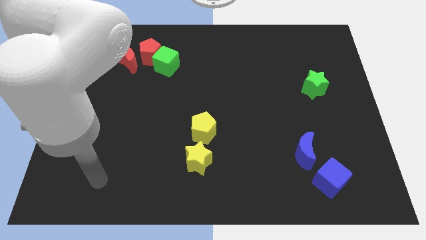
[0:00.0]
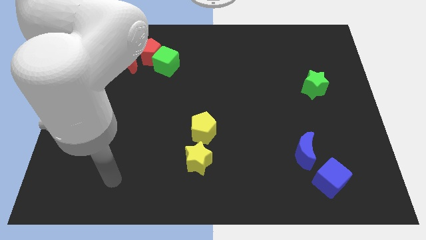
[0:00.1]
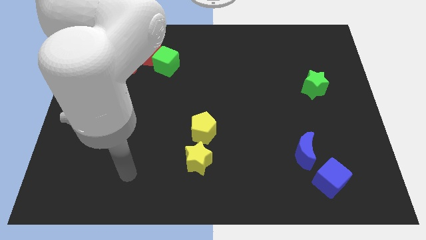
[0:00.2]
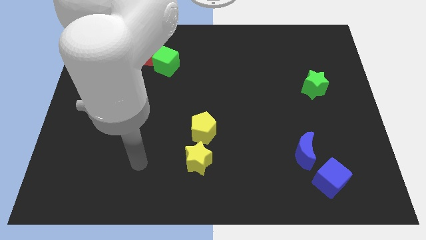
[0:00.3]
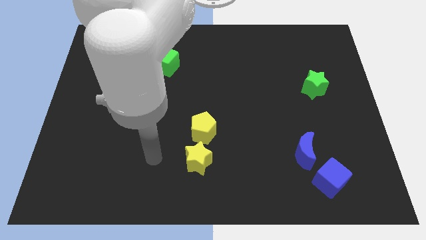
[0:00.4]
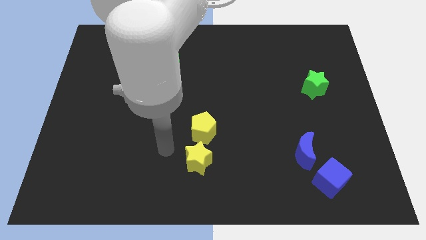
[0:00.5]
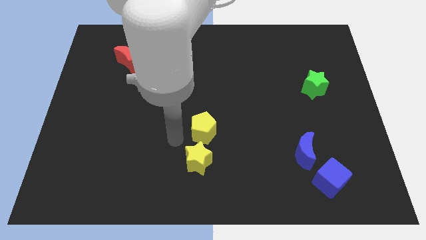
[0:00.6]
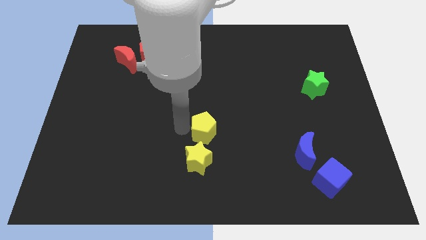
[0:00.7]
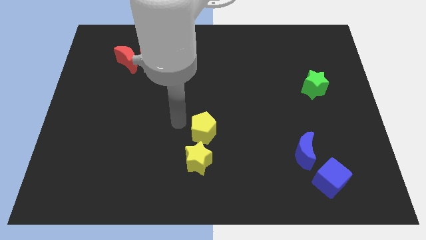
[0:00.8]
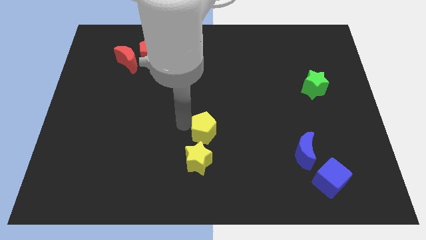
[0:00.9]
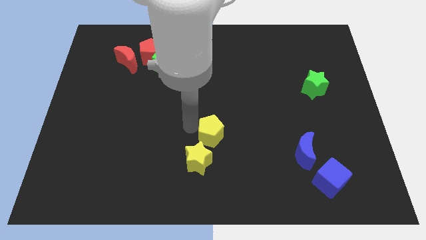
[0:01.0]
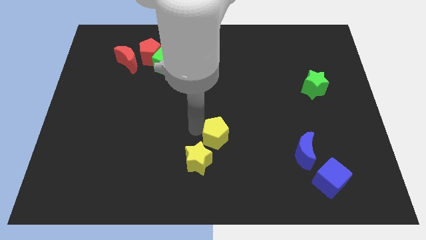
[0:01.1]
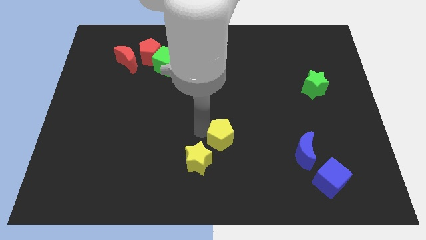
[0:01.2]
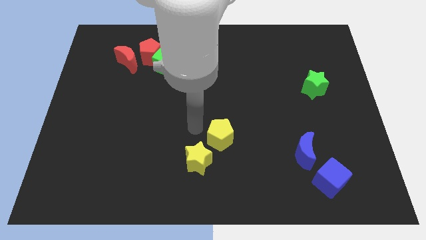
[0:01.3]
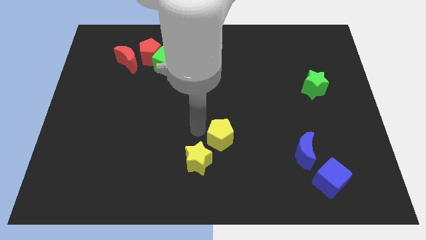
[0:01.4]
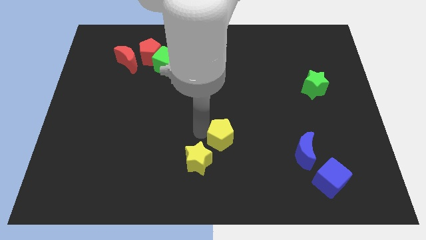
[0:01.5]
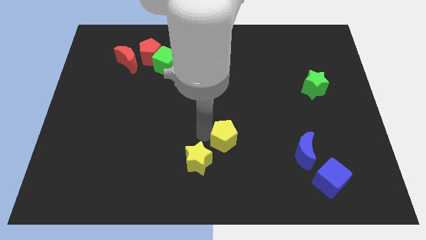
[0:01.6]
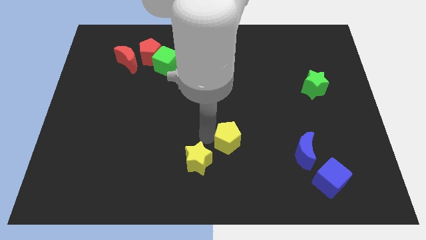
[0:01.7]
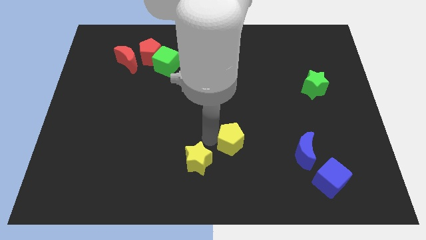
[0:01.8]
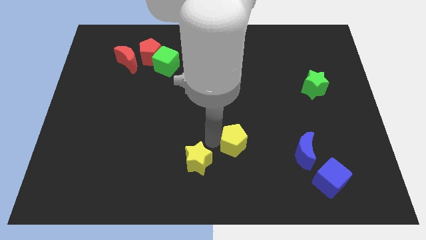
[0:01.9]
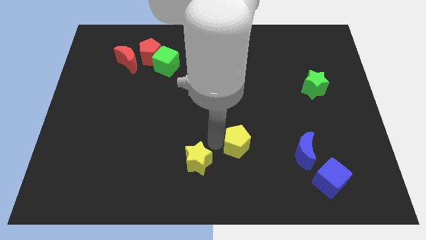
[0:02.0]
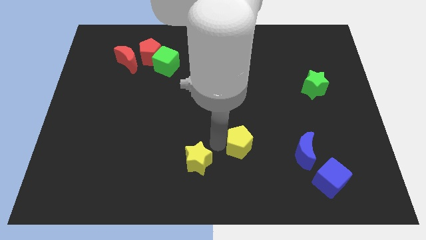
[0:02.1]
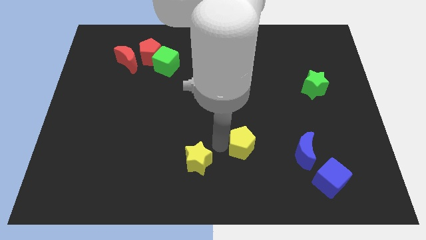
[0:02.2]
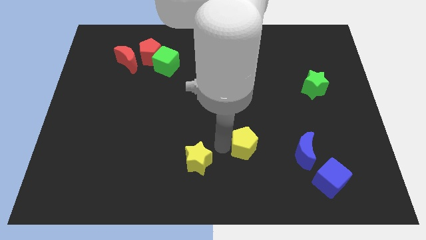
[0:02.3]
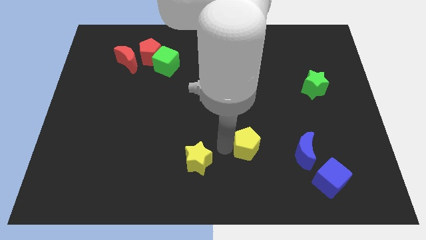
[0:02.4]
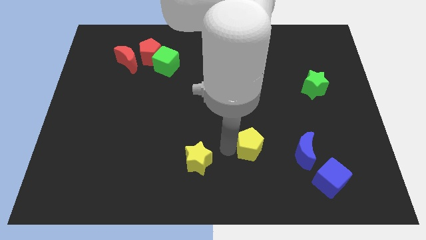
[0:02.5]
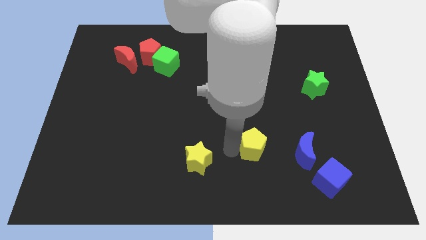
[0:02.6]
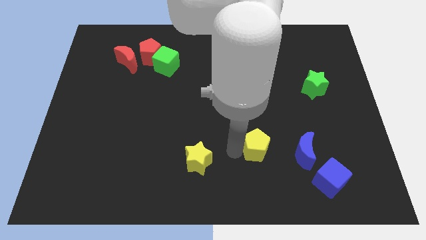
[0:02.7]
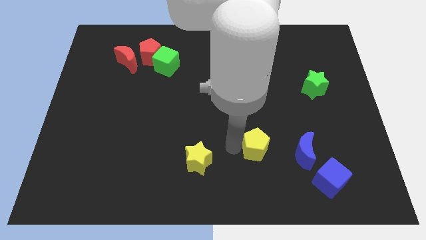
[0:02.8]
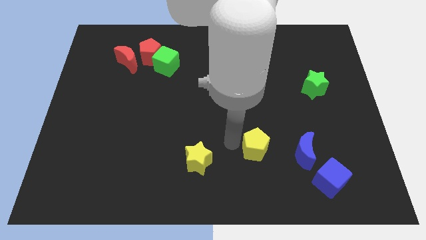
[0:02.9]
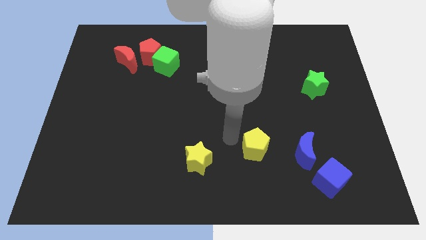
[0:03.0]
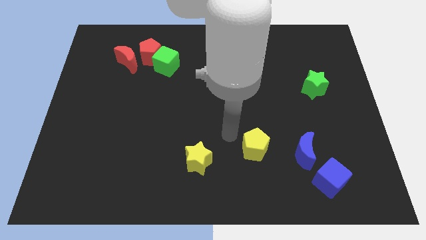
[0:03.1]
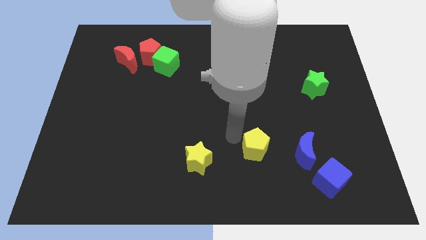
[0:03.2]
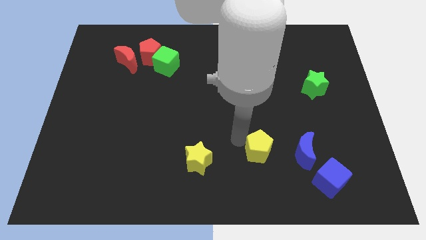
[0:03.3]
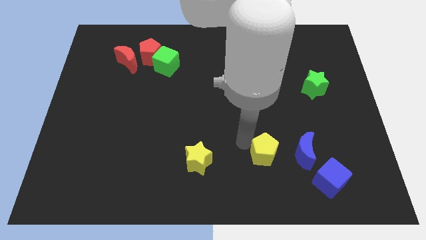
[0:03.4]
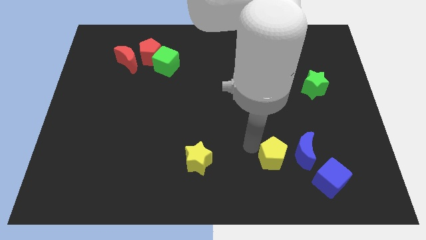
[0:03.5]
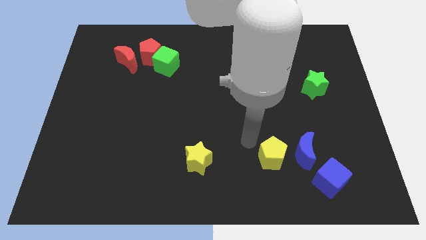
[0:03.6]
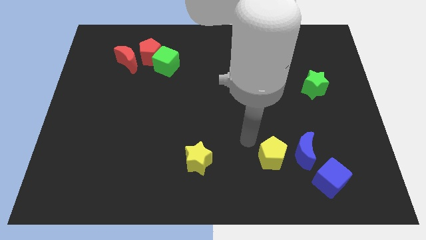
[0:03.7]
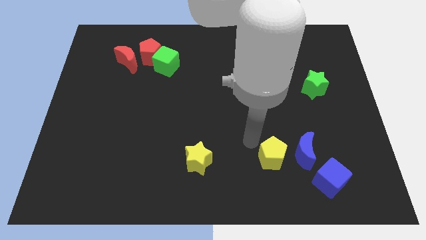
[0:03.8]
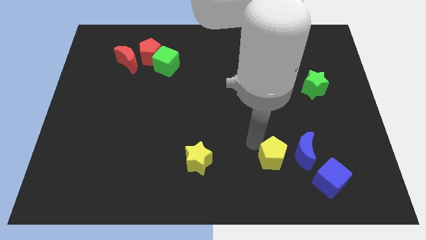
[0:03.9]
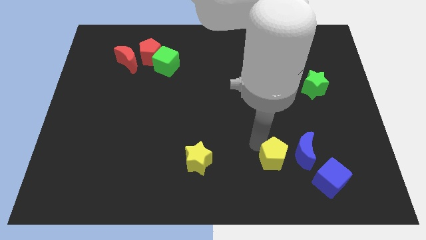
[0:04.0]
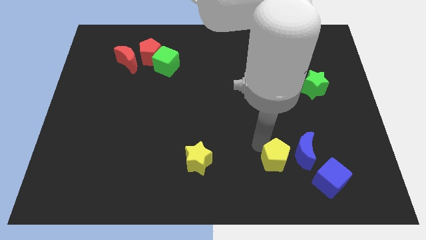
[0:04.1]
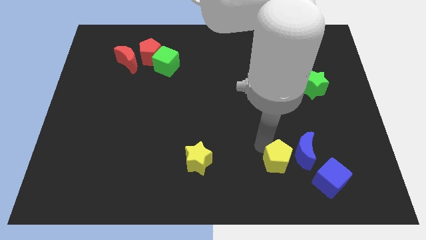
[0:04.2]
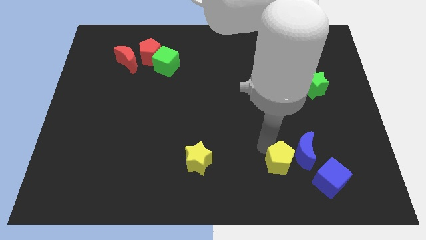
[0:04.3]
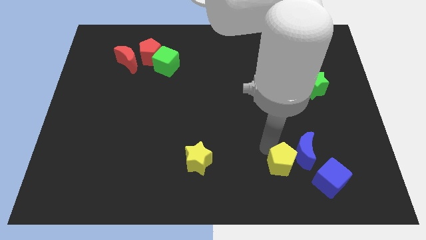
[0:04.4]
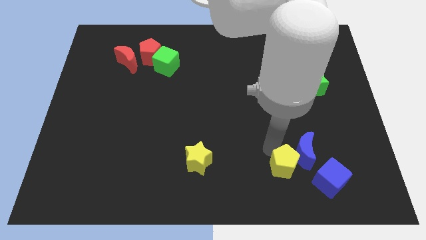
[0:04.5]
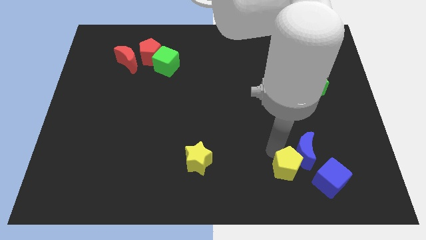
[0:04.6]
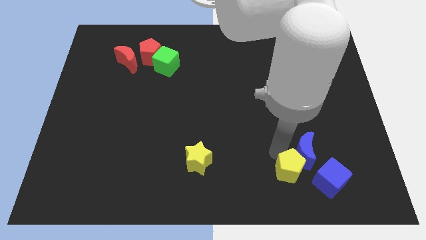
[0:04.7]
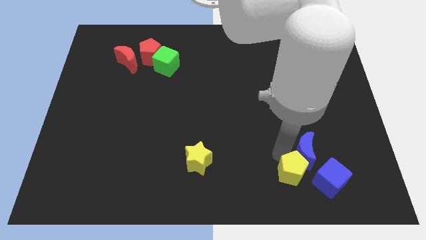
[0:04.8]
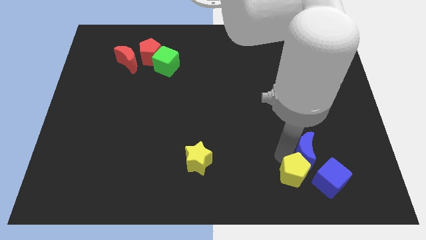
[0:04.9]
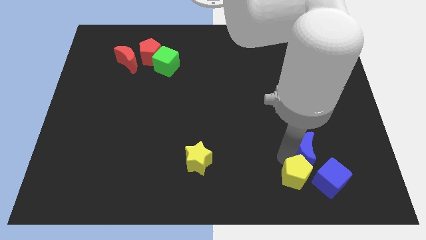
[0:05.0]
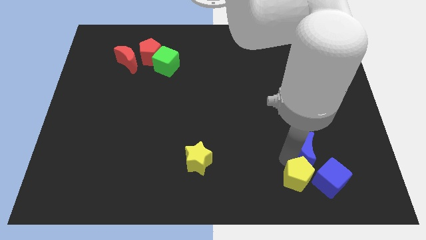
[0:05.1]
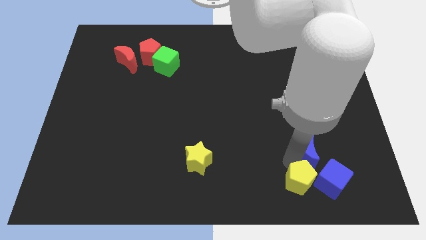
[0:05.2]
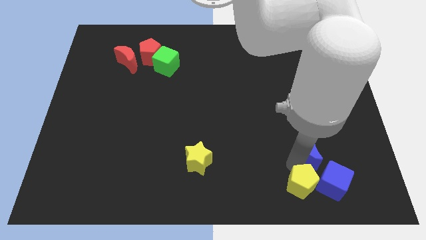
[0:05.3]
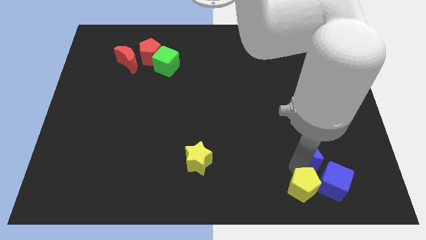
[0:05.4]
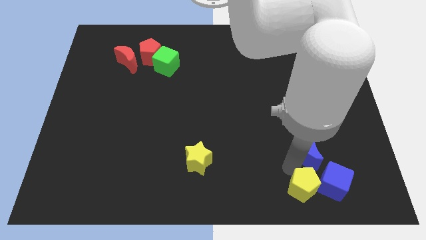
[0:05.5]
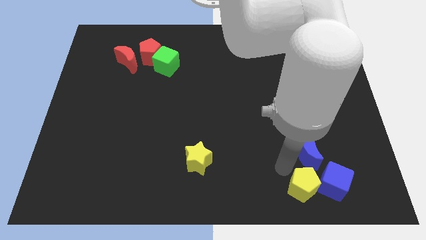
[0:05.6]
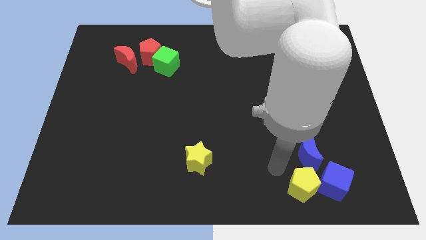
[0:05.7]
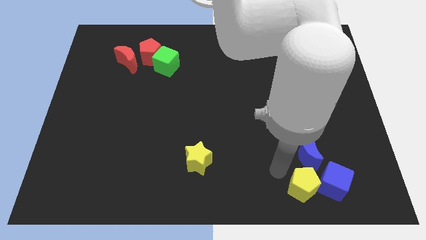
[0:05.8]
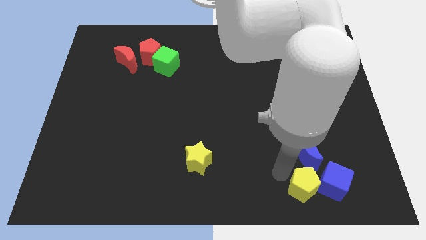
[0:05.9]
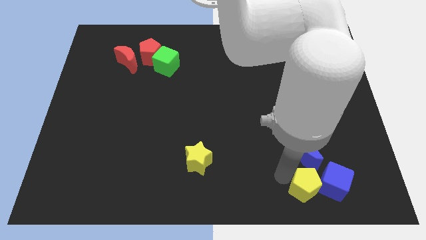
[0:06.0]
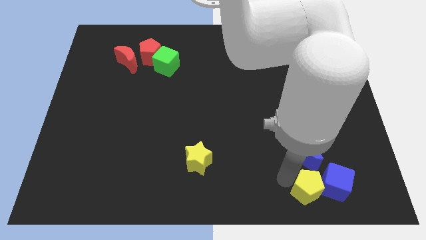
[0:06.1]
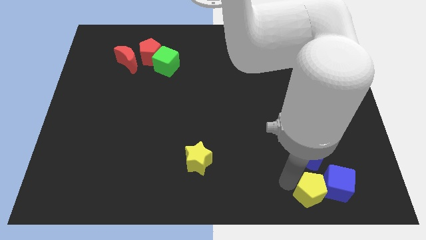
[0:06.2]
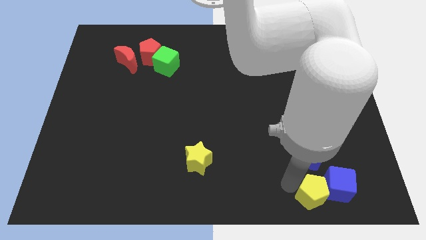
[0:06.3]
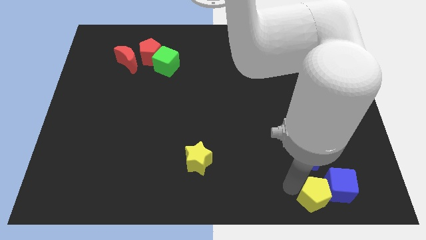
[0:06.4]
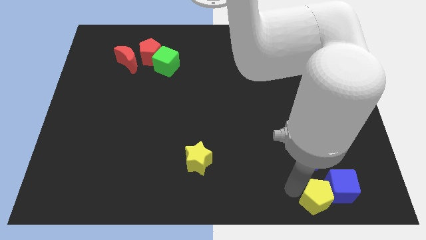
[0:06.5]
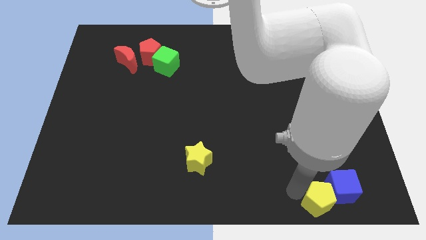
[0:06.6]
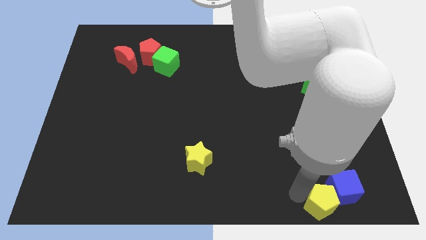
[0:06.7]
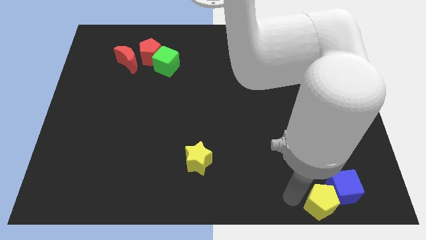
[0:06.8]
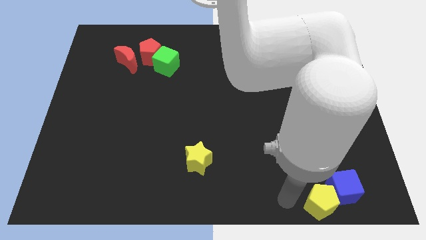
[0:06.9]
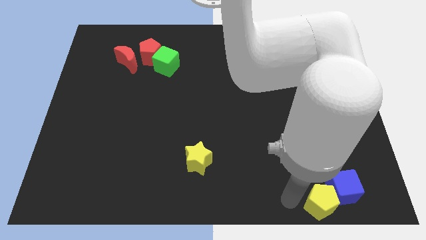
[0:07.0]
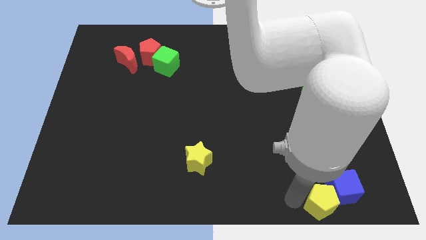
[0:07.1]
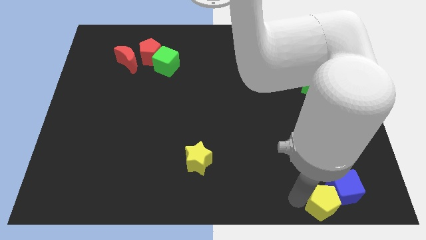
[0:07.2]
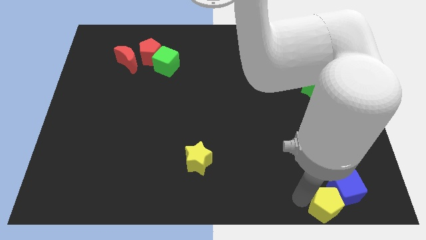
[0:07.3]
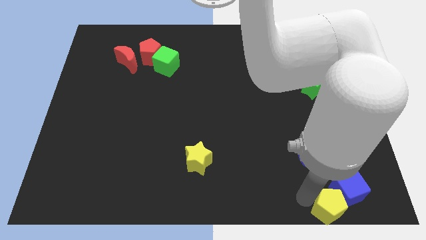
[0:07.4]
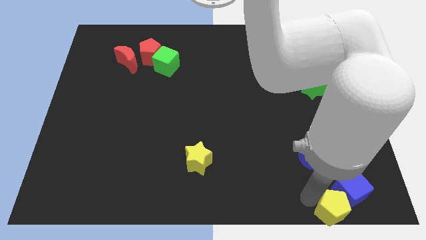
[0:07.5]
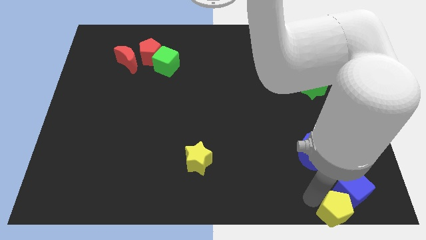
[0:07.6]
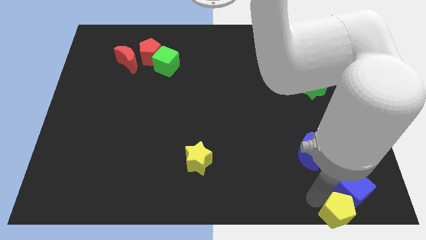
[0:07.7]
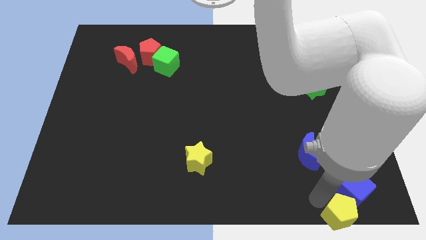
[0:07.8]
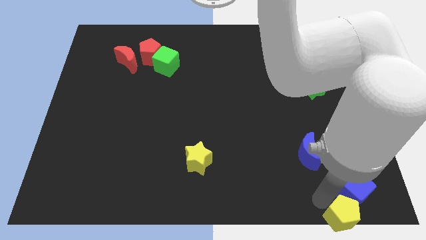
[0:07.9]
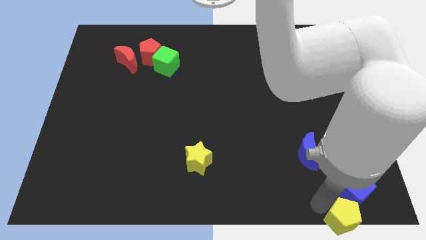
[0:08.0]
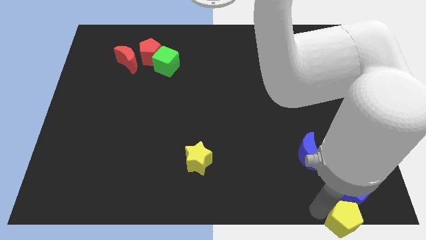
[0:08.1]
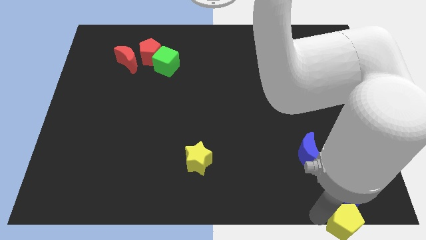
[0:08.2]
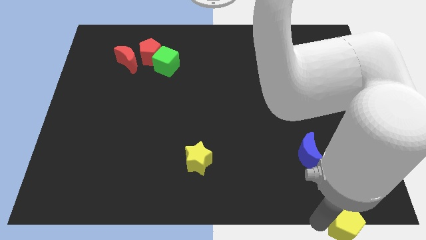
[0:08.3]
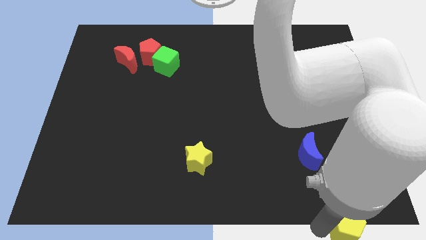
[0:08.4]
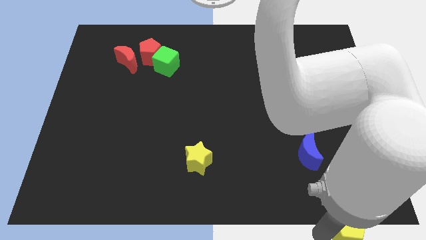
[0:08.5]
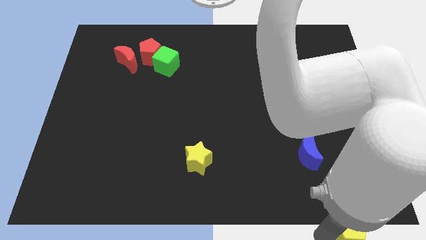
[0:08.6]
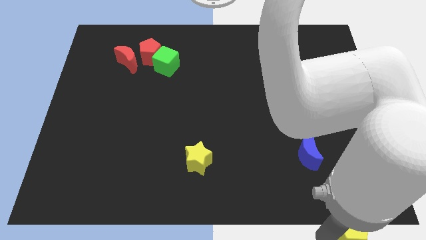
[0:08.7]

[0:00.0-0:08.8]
put the yellow pentagon to the bottom right of the board
